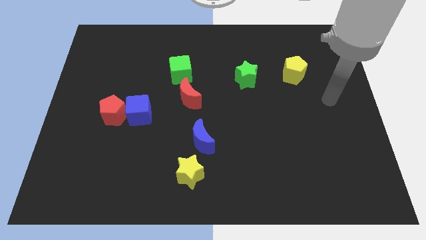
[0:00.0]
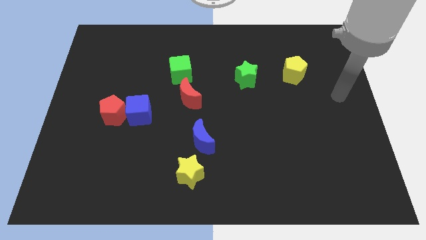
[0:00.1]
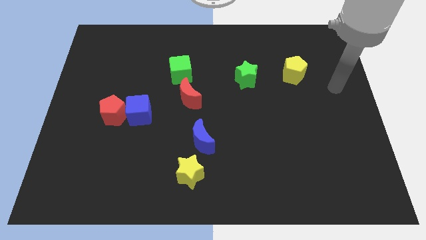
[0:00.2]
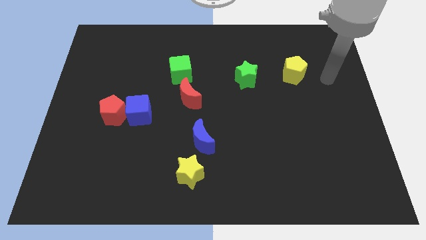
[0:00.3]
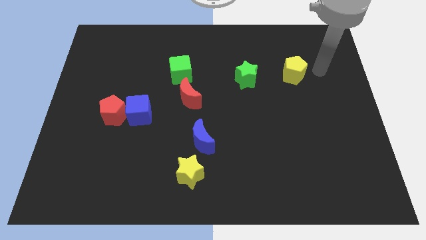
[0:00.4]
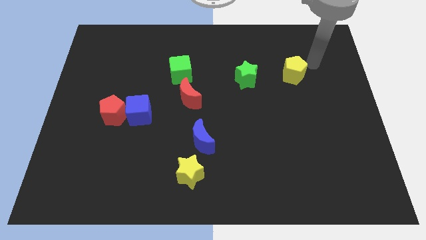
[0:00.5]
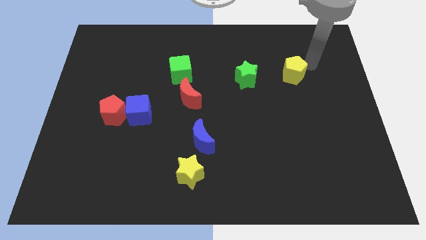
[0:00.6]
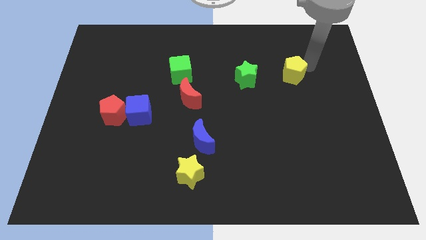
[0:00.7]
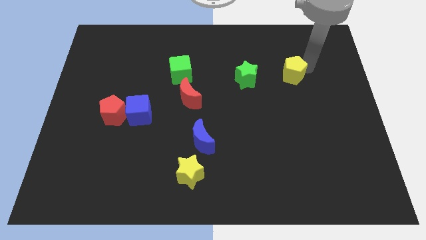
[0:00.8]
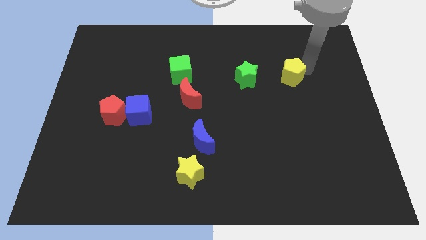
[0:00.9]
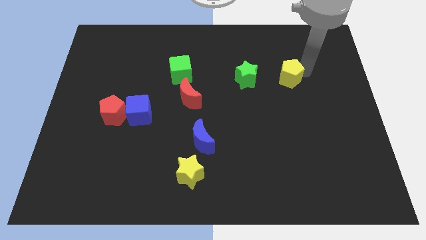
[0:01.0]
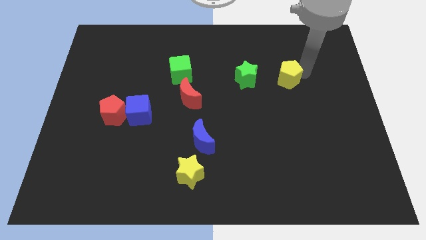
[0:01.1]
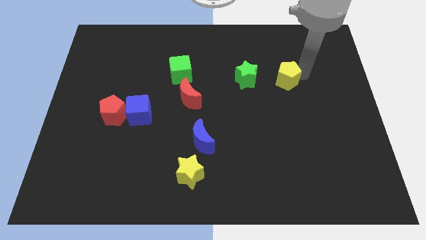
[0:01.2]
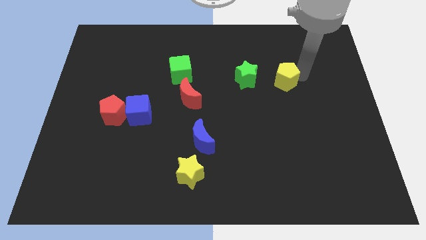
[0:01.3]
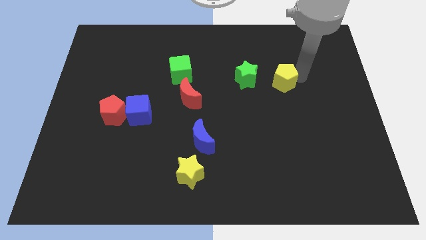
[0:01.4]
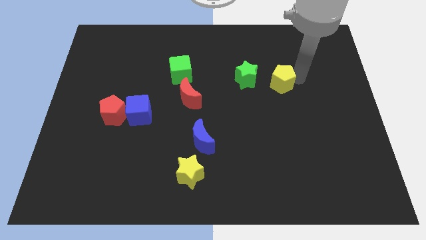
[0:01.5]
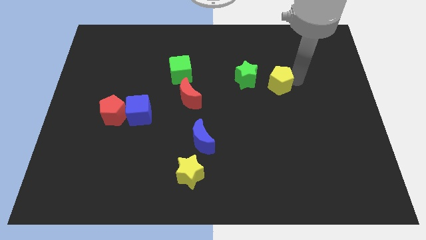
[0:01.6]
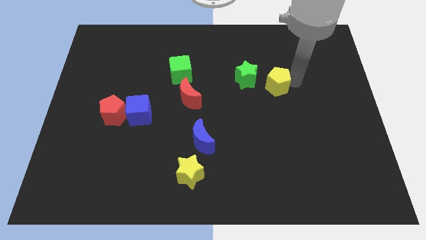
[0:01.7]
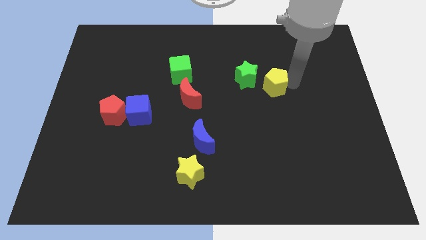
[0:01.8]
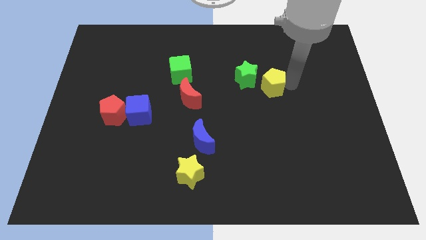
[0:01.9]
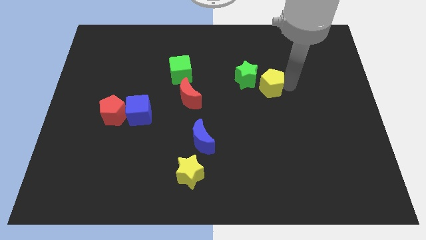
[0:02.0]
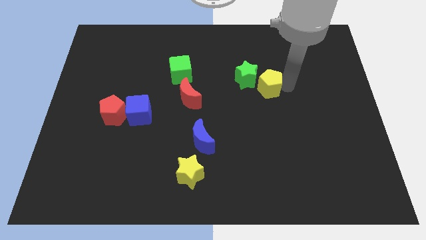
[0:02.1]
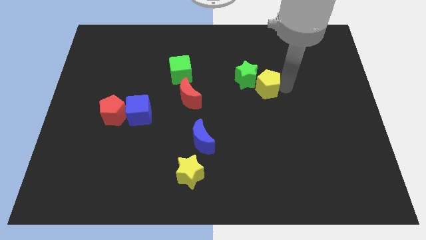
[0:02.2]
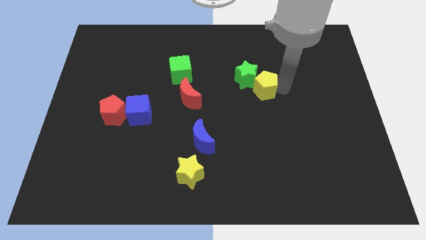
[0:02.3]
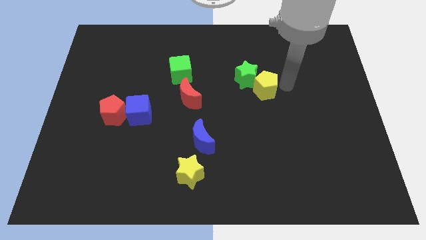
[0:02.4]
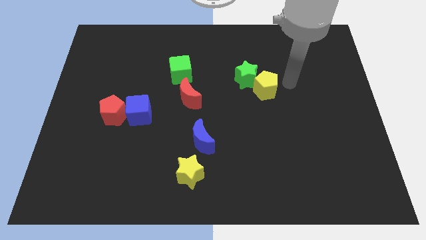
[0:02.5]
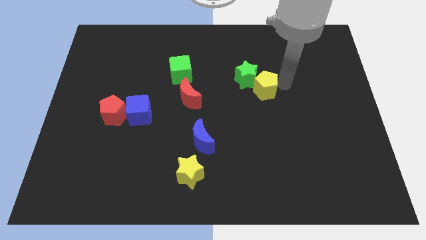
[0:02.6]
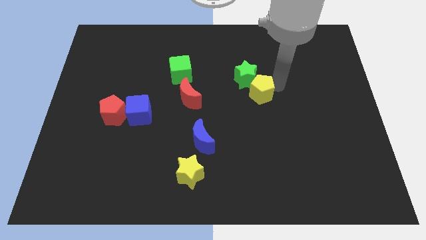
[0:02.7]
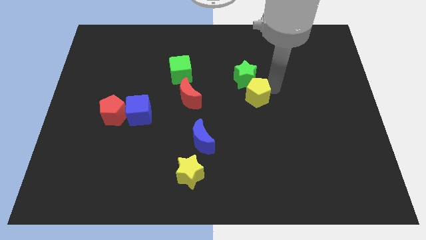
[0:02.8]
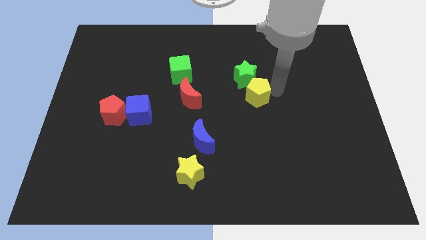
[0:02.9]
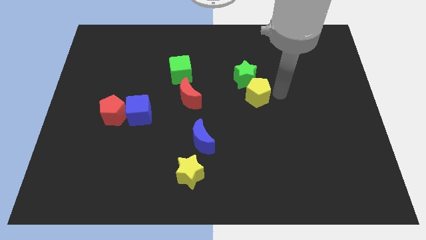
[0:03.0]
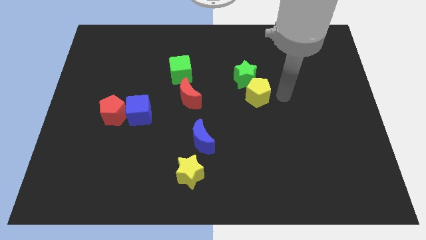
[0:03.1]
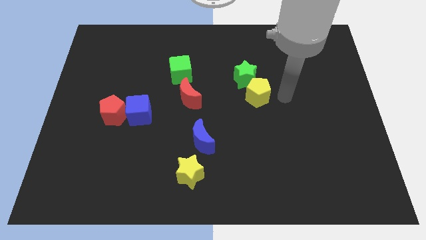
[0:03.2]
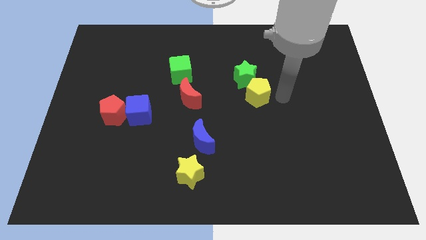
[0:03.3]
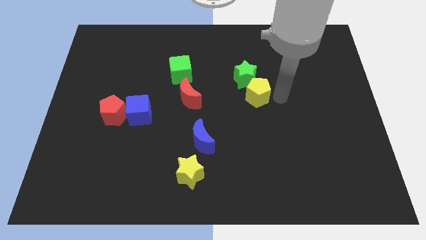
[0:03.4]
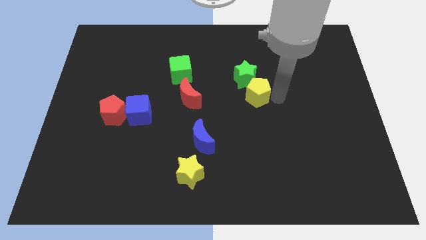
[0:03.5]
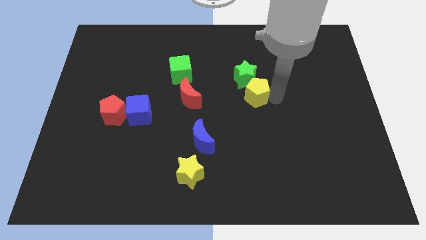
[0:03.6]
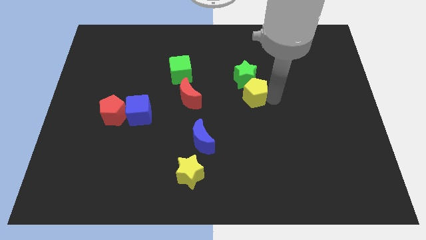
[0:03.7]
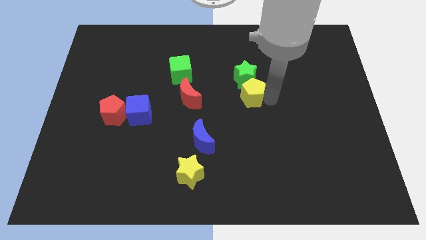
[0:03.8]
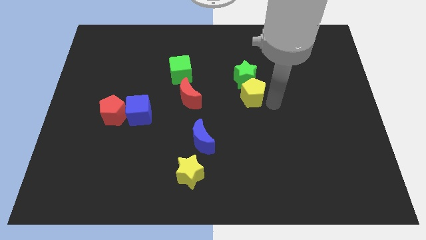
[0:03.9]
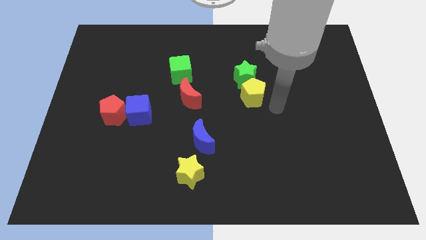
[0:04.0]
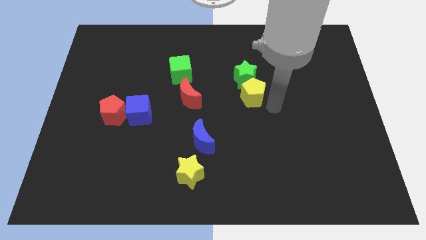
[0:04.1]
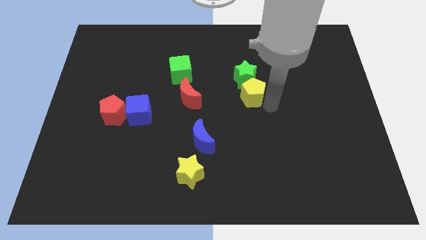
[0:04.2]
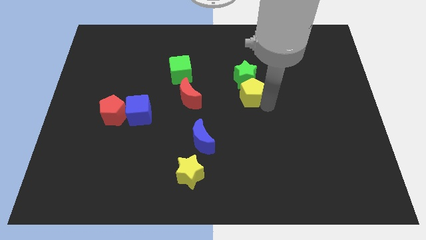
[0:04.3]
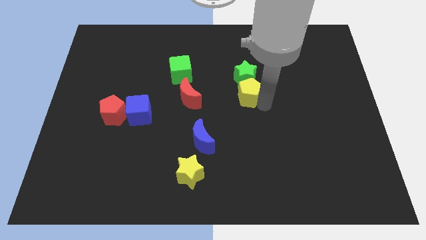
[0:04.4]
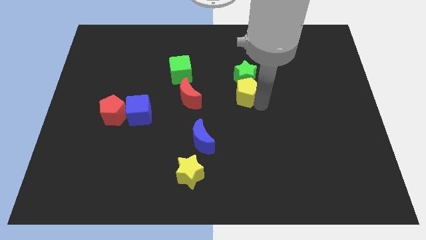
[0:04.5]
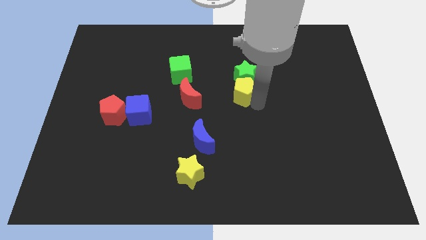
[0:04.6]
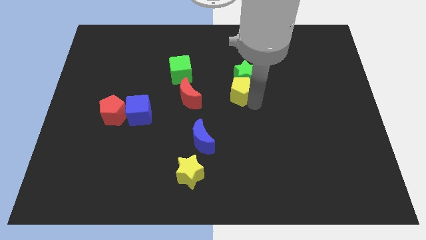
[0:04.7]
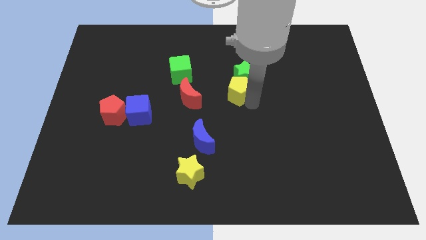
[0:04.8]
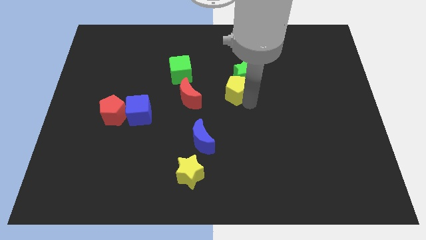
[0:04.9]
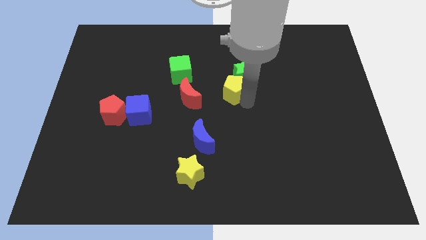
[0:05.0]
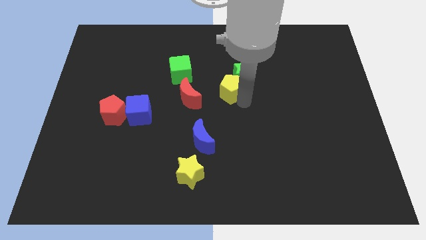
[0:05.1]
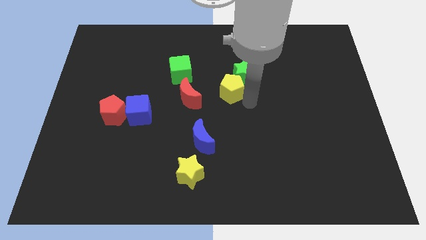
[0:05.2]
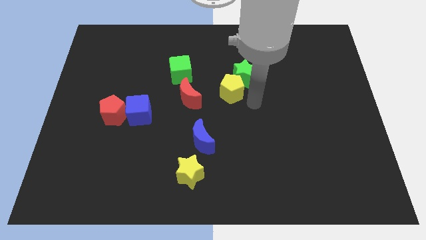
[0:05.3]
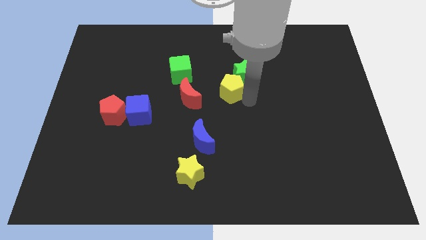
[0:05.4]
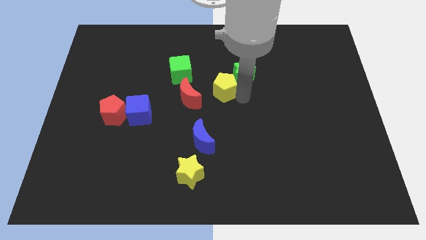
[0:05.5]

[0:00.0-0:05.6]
push the yellow pentagon to the top right side of the red moon
